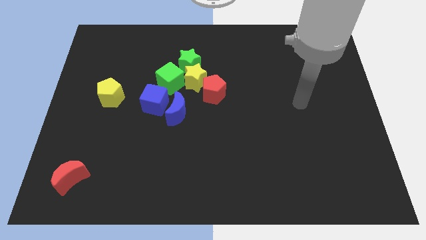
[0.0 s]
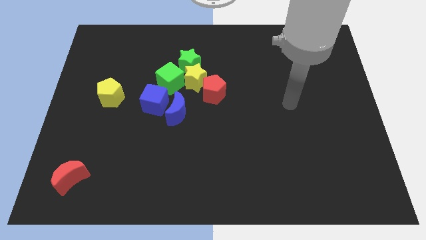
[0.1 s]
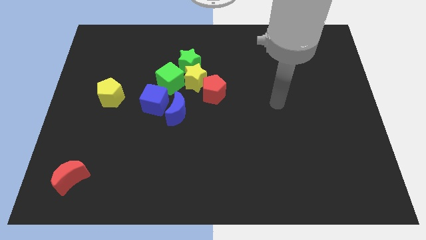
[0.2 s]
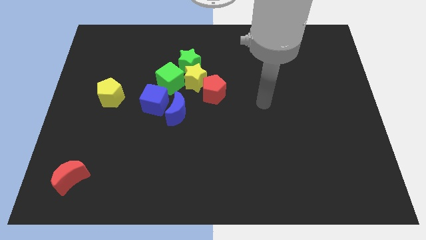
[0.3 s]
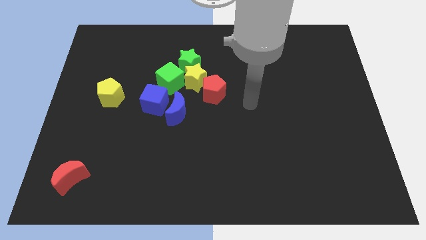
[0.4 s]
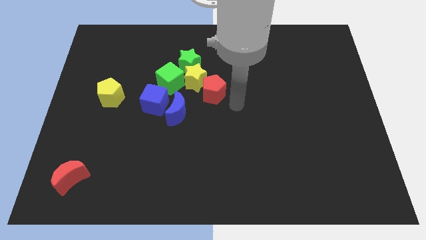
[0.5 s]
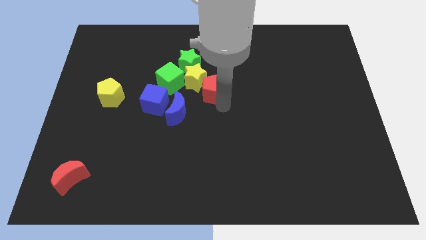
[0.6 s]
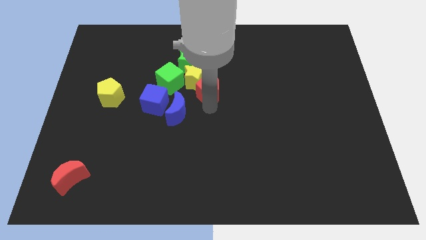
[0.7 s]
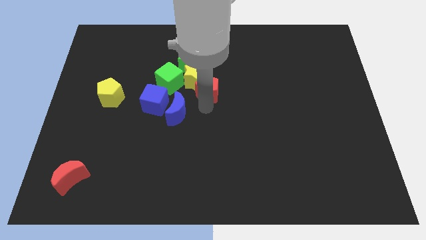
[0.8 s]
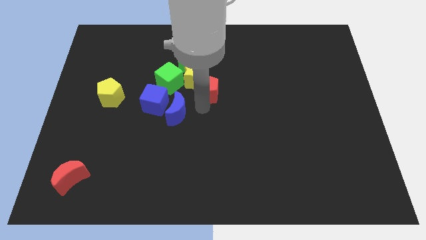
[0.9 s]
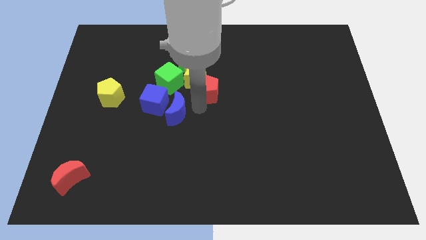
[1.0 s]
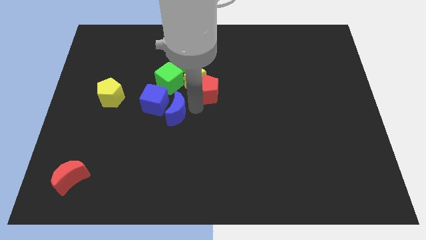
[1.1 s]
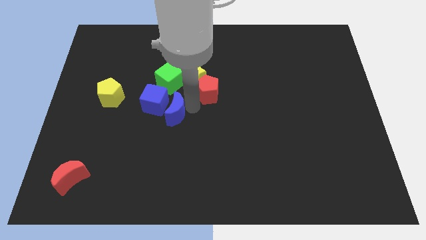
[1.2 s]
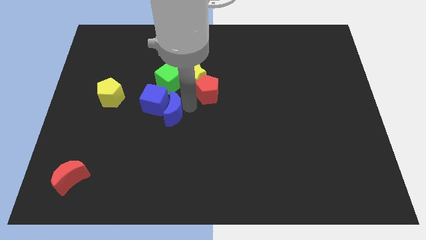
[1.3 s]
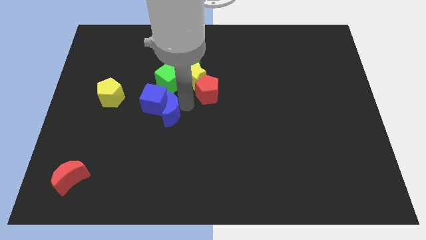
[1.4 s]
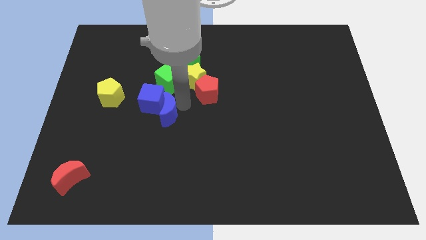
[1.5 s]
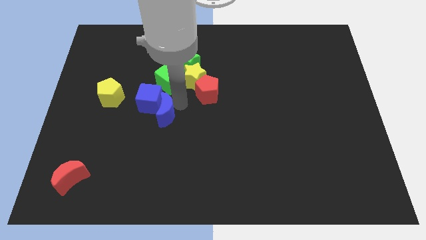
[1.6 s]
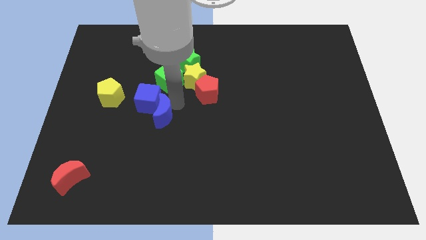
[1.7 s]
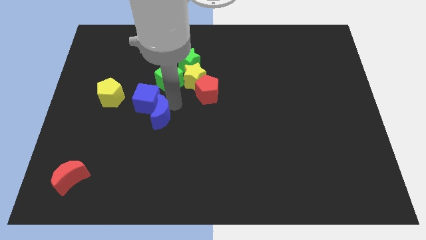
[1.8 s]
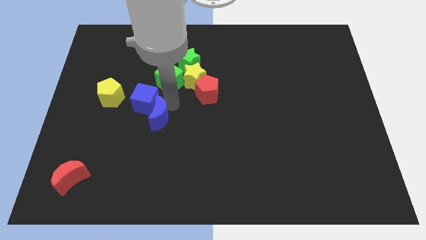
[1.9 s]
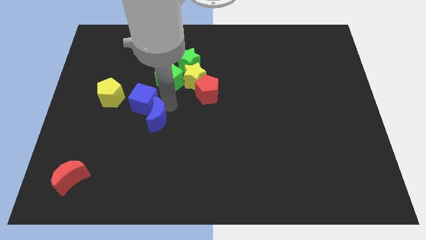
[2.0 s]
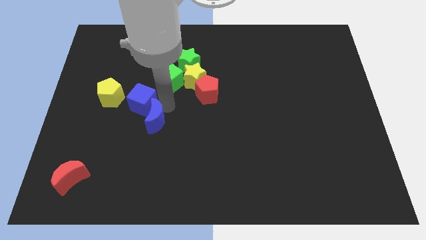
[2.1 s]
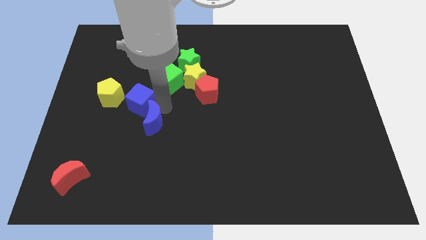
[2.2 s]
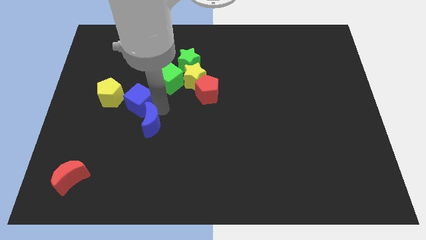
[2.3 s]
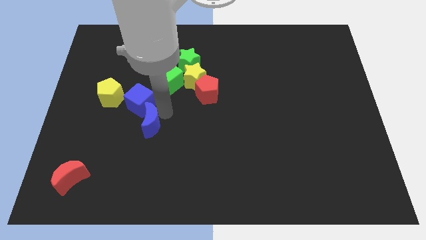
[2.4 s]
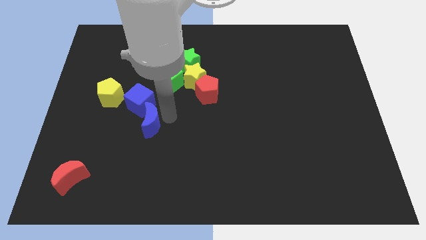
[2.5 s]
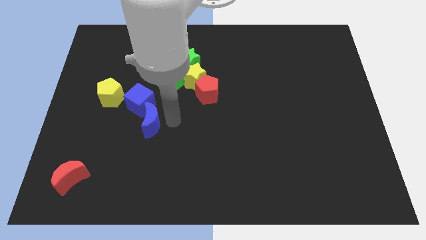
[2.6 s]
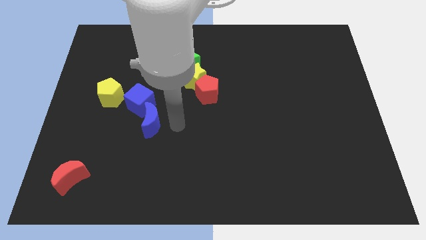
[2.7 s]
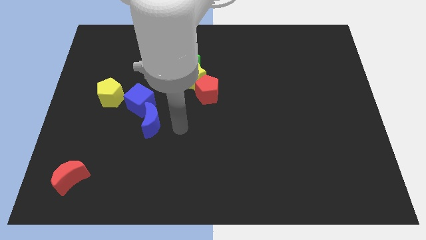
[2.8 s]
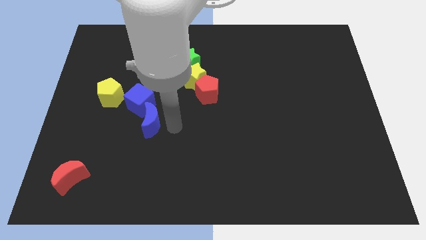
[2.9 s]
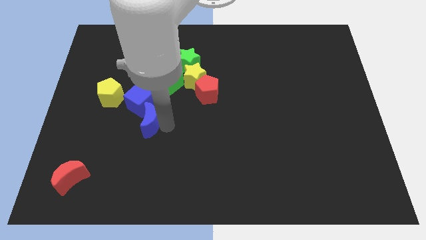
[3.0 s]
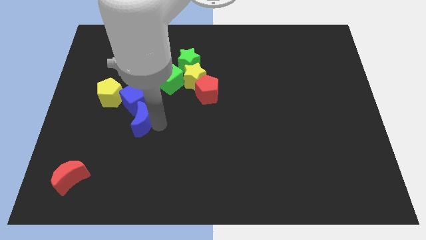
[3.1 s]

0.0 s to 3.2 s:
push the blue moon to the left slightly

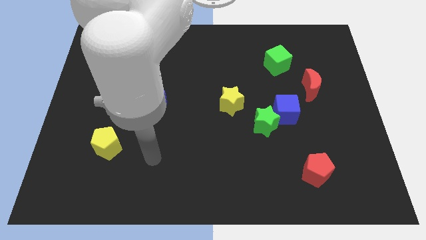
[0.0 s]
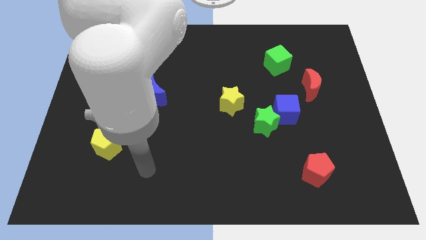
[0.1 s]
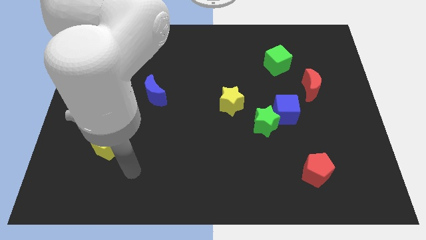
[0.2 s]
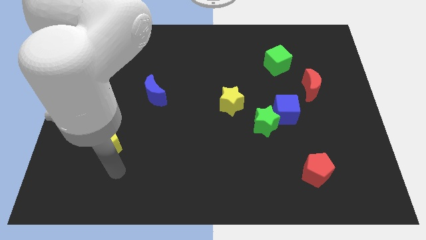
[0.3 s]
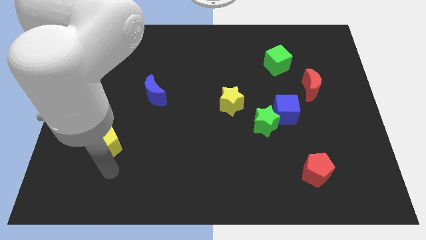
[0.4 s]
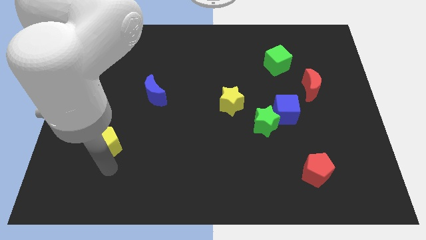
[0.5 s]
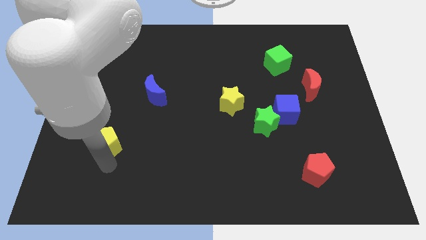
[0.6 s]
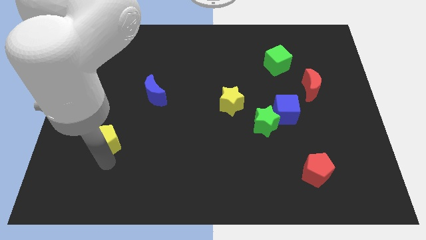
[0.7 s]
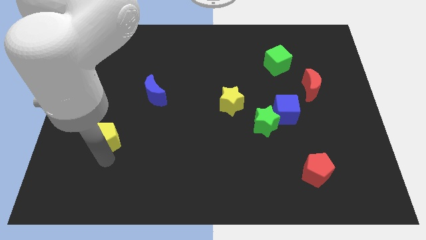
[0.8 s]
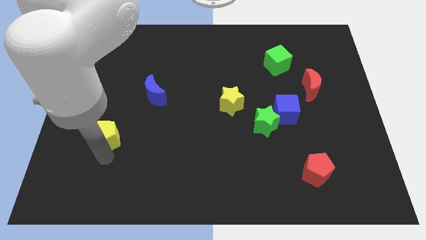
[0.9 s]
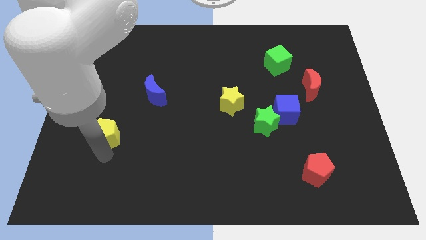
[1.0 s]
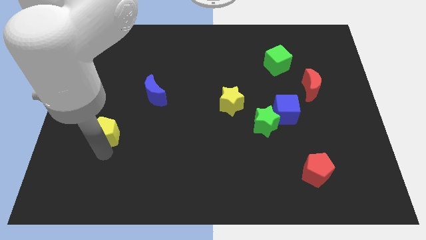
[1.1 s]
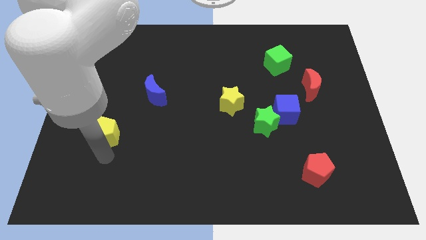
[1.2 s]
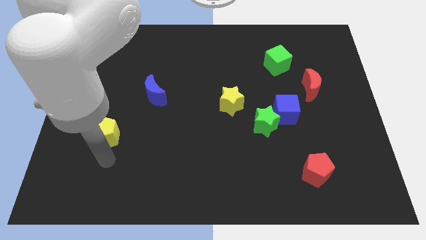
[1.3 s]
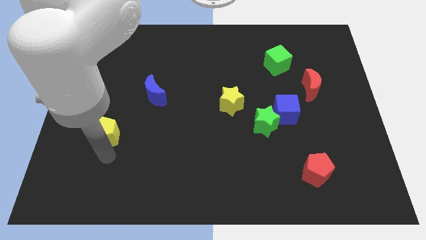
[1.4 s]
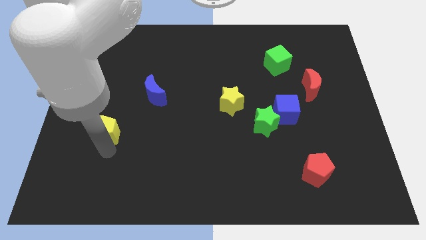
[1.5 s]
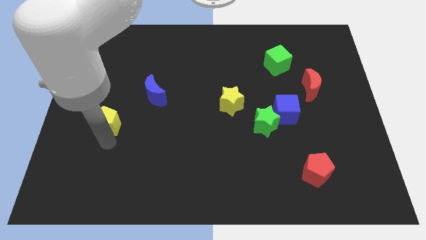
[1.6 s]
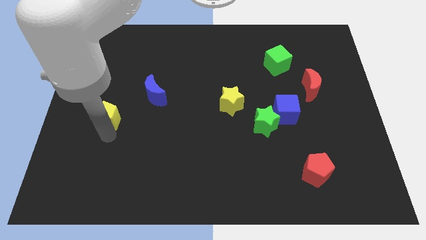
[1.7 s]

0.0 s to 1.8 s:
slightly move the yellow pentagon up

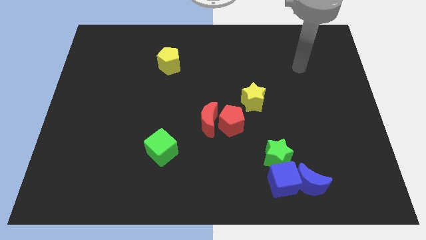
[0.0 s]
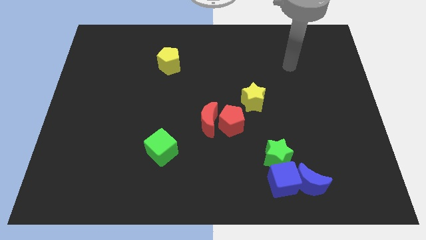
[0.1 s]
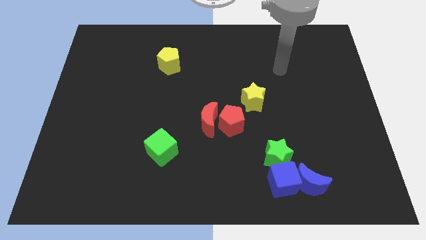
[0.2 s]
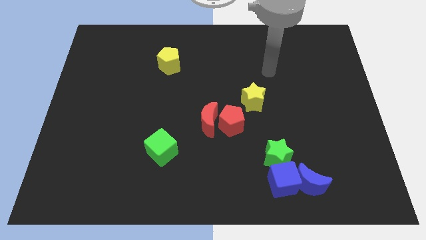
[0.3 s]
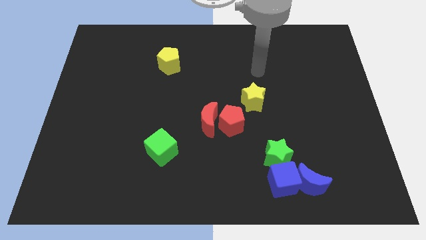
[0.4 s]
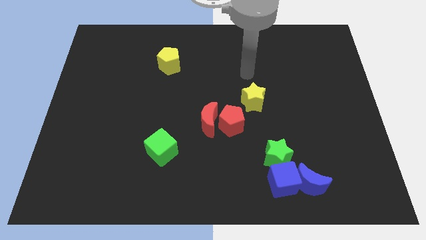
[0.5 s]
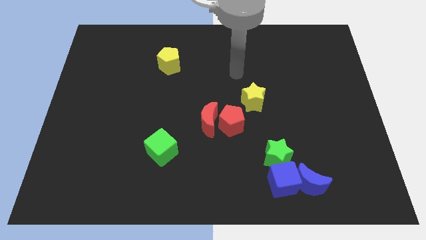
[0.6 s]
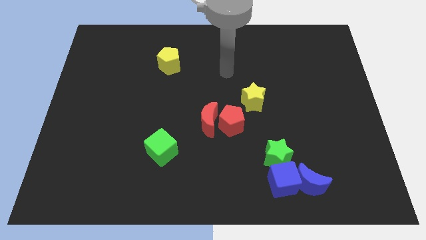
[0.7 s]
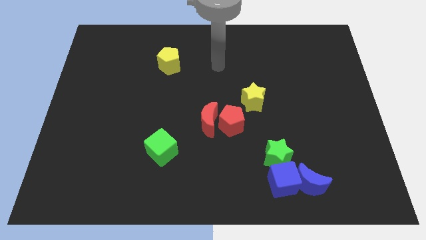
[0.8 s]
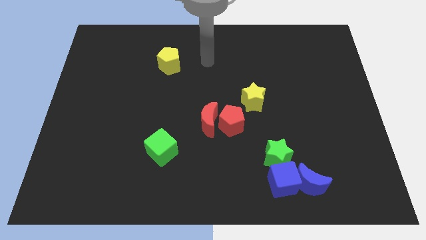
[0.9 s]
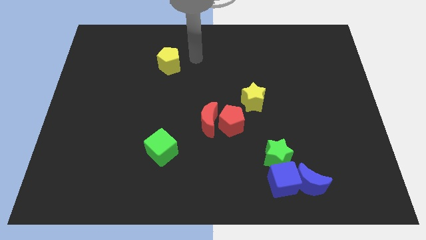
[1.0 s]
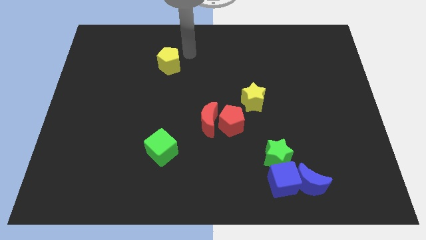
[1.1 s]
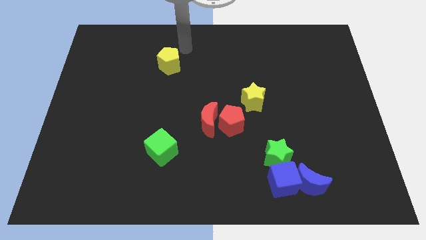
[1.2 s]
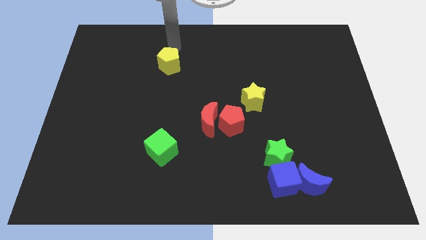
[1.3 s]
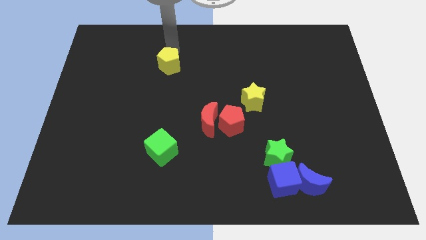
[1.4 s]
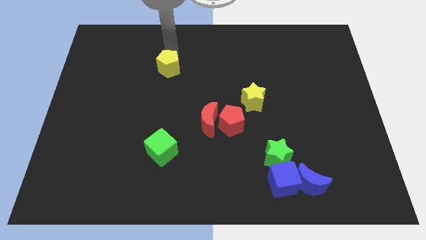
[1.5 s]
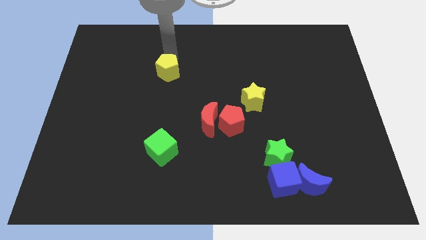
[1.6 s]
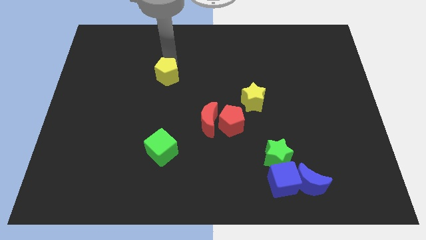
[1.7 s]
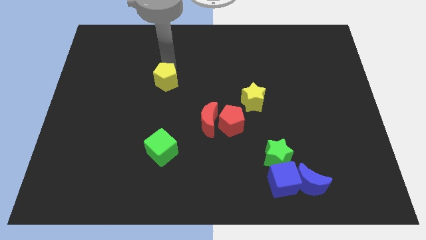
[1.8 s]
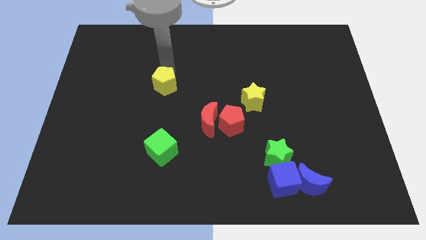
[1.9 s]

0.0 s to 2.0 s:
slightly push the yellow pentagon down

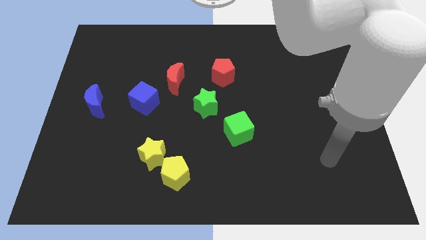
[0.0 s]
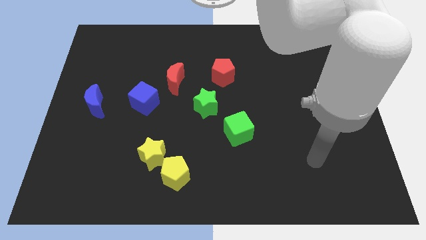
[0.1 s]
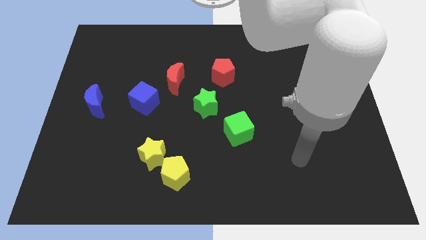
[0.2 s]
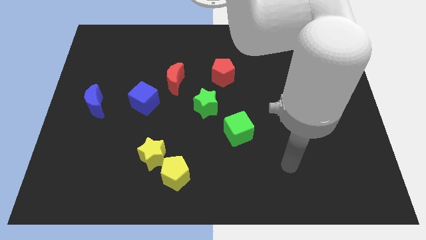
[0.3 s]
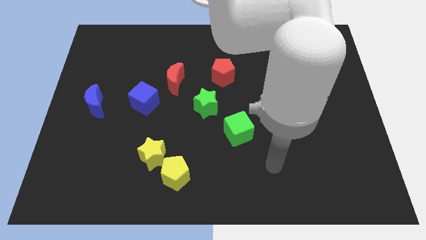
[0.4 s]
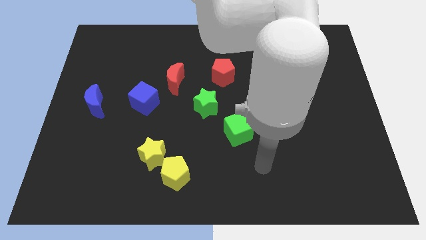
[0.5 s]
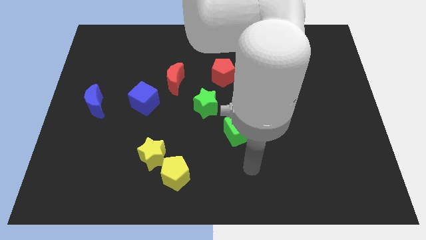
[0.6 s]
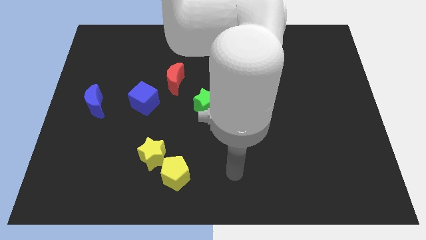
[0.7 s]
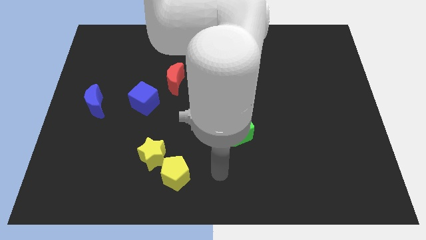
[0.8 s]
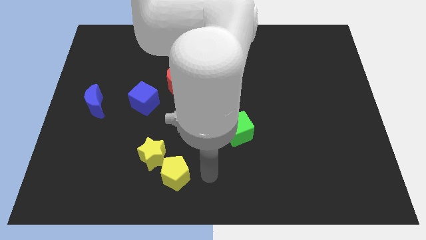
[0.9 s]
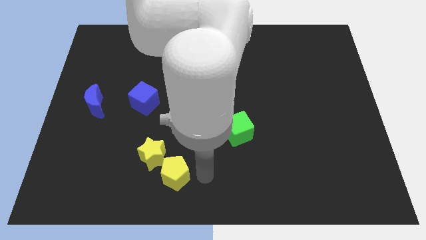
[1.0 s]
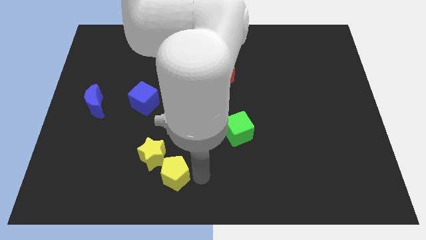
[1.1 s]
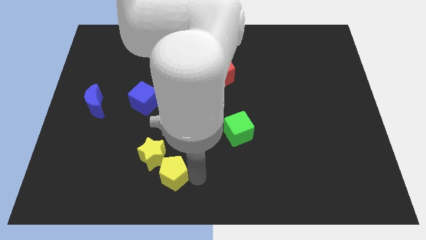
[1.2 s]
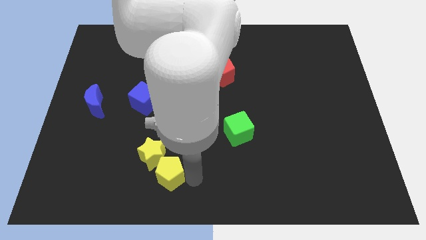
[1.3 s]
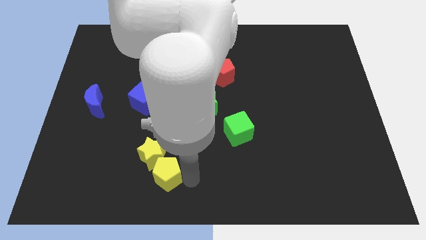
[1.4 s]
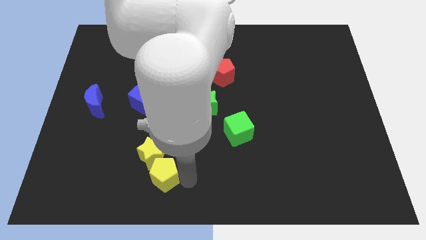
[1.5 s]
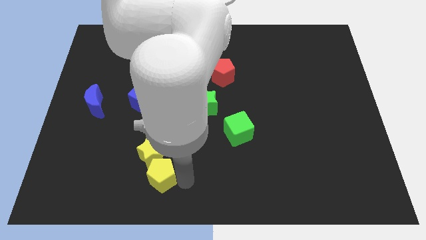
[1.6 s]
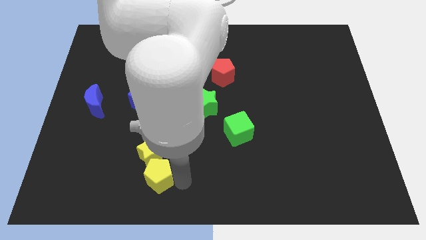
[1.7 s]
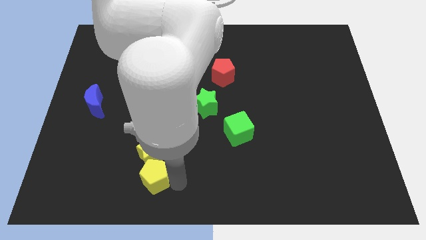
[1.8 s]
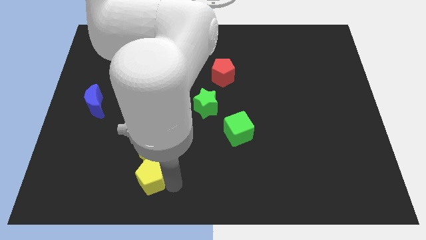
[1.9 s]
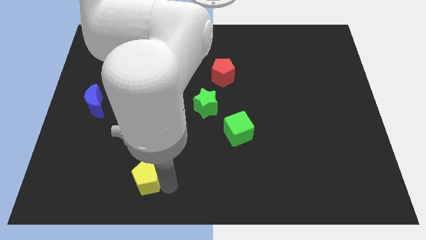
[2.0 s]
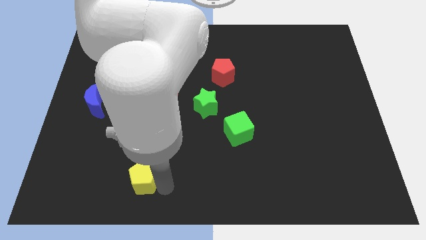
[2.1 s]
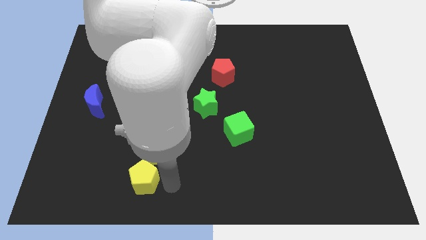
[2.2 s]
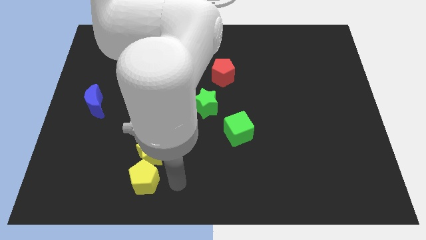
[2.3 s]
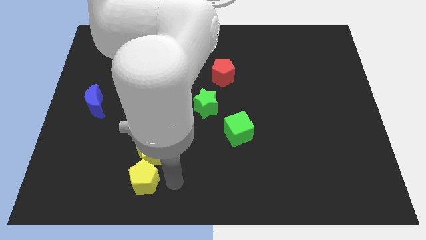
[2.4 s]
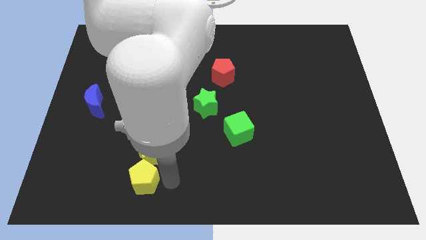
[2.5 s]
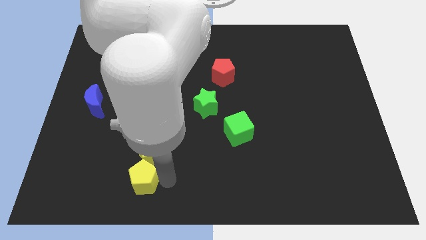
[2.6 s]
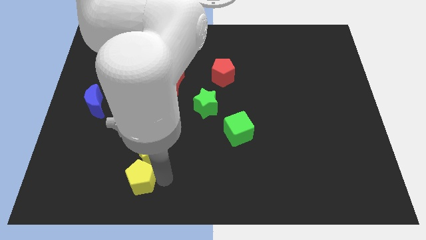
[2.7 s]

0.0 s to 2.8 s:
move the yellow pentagon somewhat left
